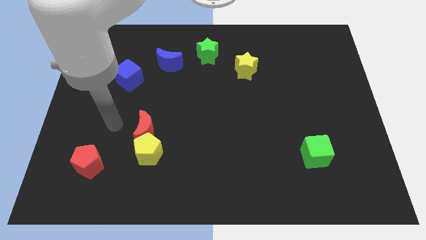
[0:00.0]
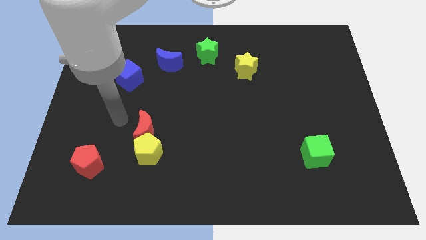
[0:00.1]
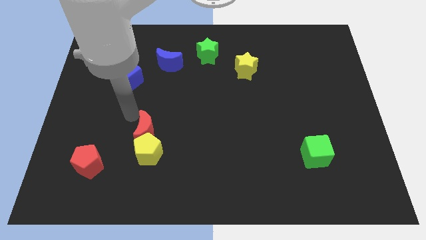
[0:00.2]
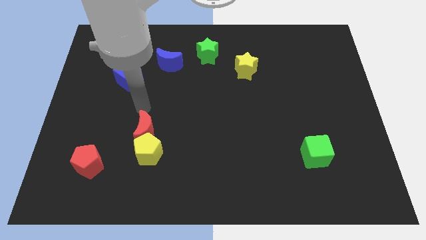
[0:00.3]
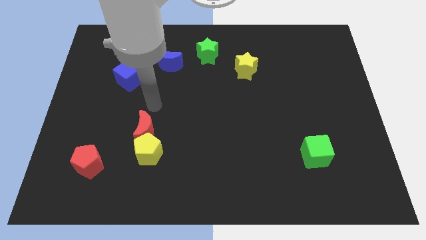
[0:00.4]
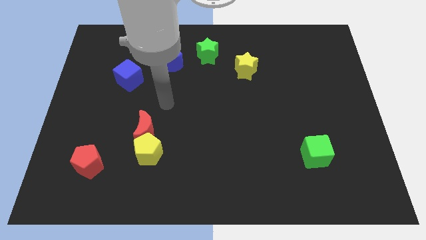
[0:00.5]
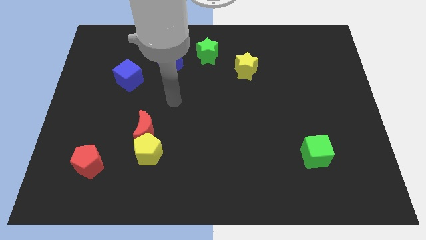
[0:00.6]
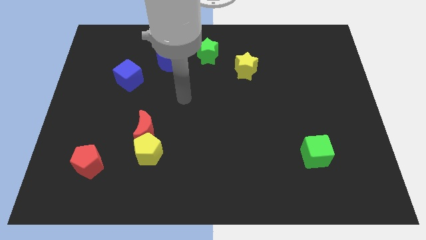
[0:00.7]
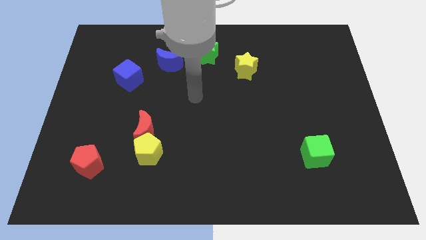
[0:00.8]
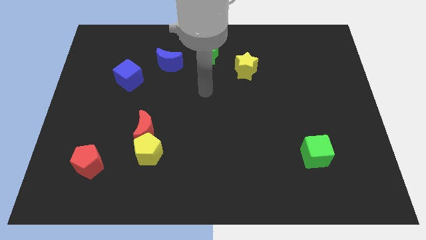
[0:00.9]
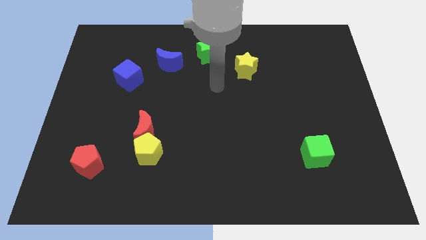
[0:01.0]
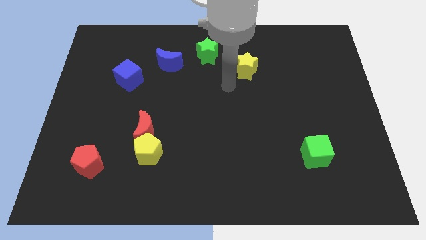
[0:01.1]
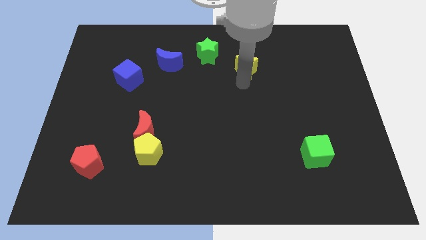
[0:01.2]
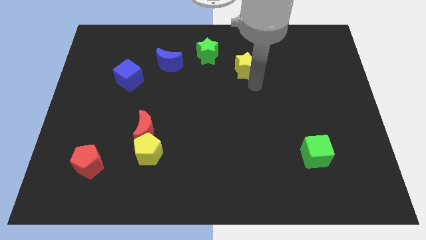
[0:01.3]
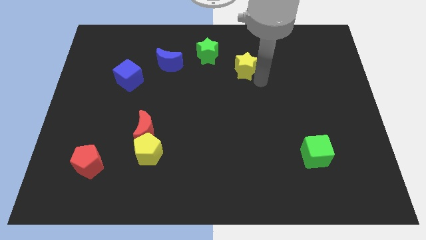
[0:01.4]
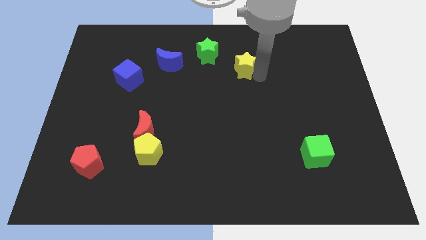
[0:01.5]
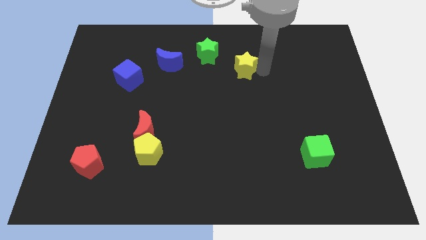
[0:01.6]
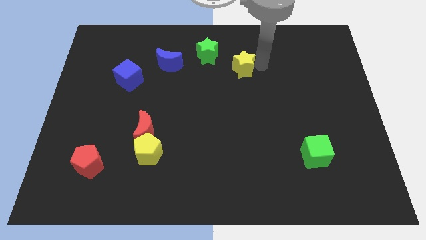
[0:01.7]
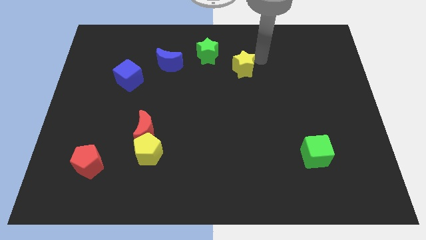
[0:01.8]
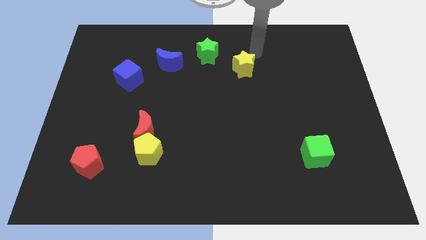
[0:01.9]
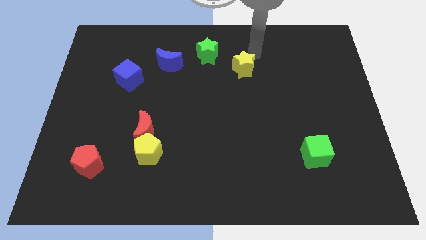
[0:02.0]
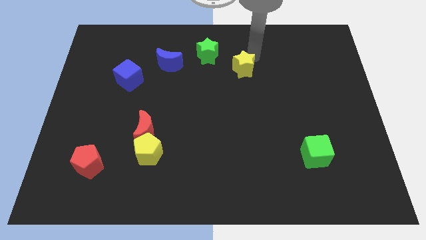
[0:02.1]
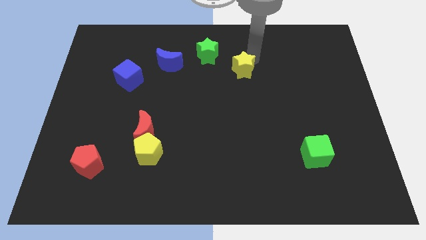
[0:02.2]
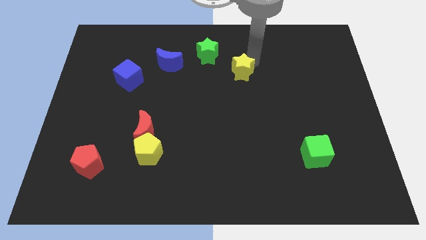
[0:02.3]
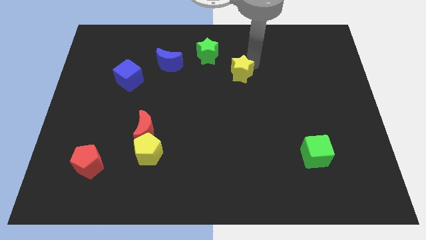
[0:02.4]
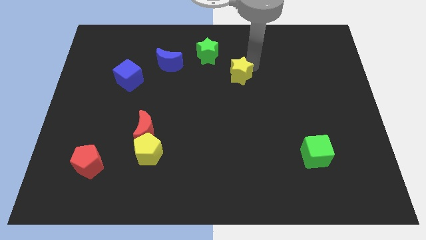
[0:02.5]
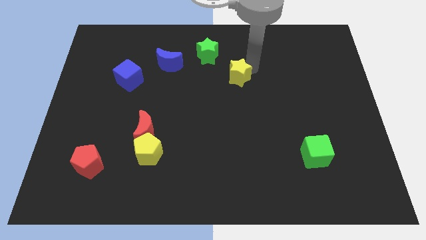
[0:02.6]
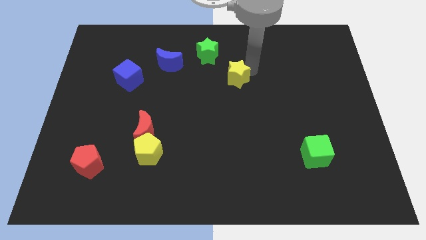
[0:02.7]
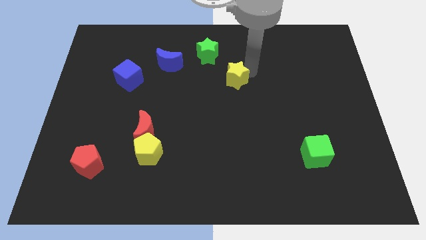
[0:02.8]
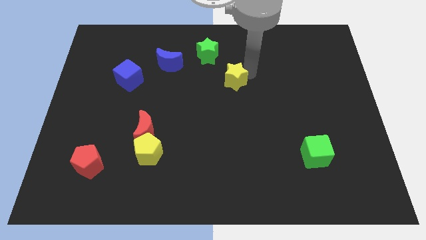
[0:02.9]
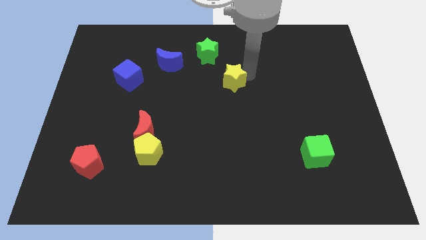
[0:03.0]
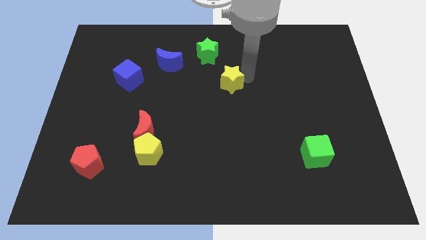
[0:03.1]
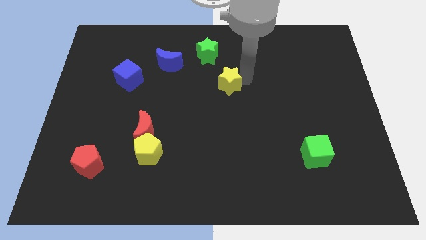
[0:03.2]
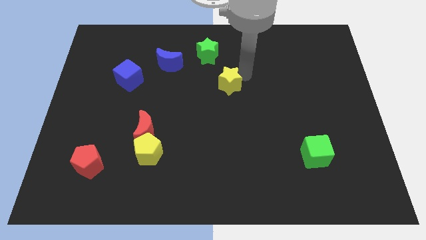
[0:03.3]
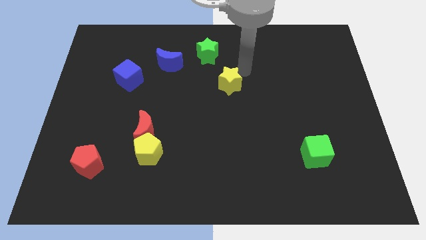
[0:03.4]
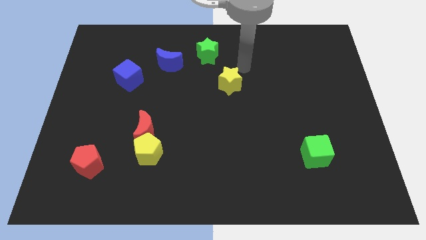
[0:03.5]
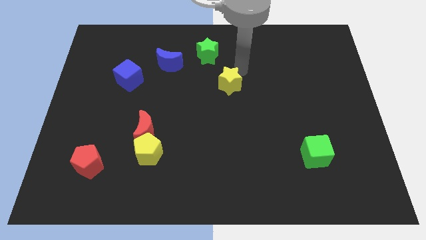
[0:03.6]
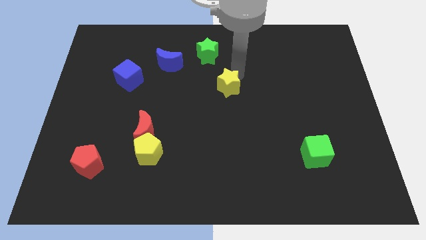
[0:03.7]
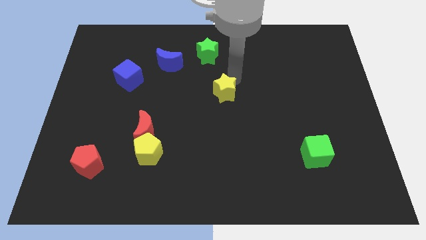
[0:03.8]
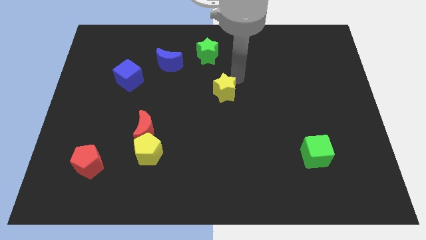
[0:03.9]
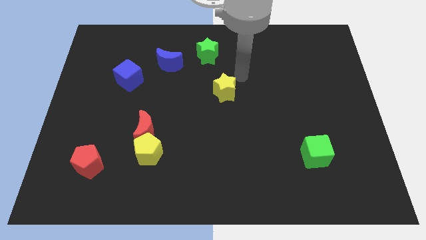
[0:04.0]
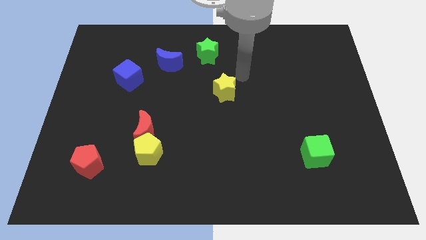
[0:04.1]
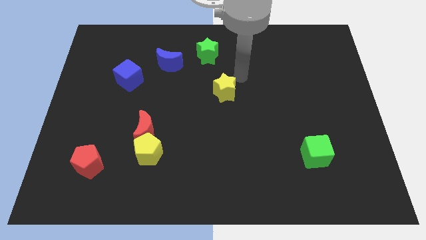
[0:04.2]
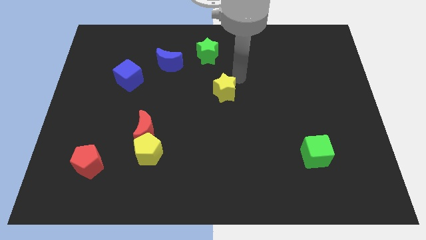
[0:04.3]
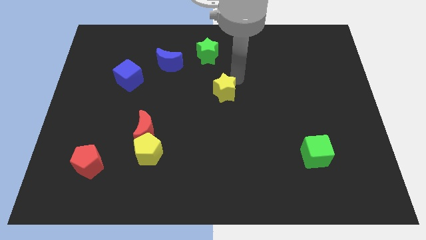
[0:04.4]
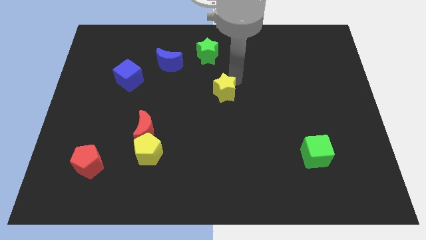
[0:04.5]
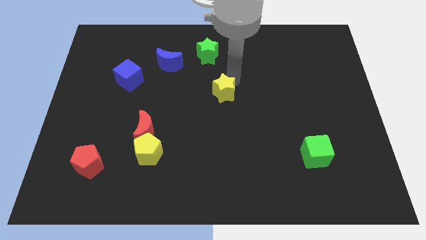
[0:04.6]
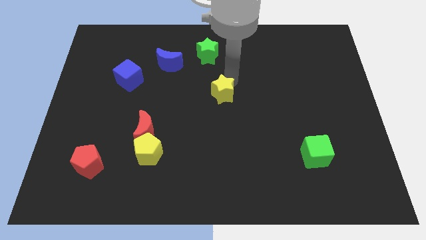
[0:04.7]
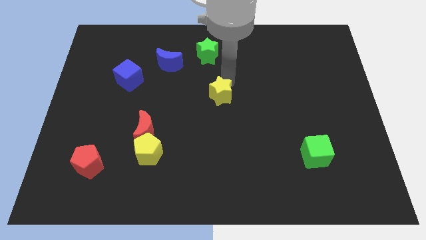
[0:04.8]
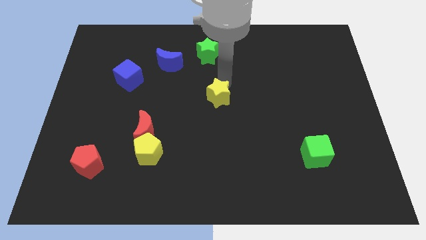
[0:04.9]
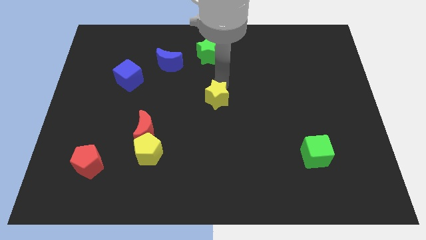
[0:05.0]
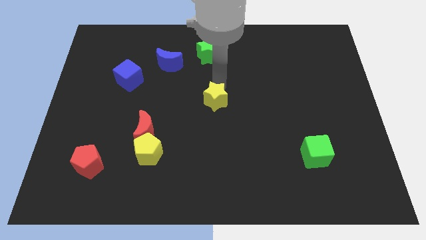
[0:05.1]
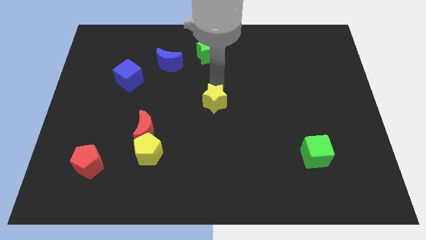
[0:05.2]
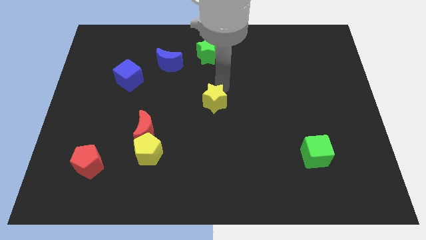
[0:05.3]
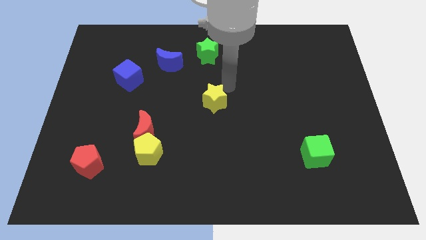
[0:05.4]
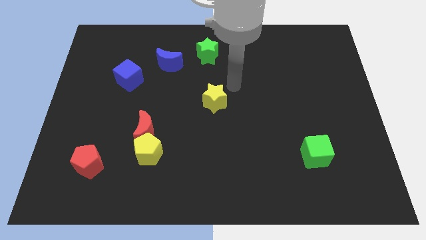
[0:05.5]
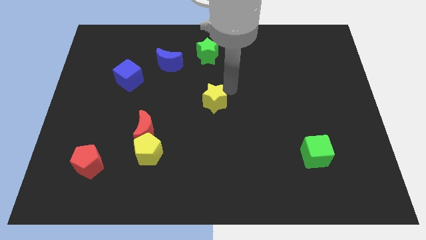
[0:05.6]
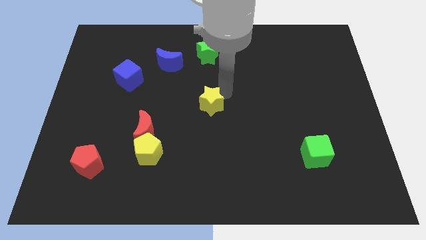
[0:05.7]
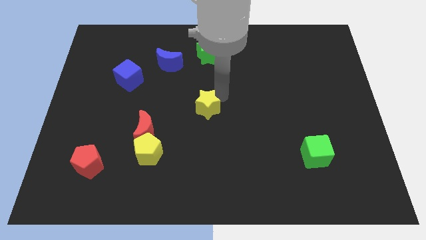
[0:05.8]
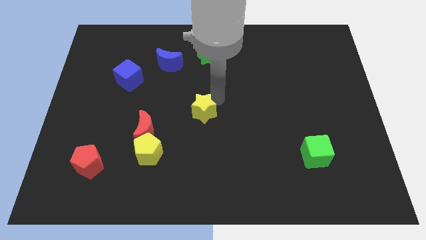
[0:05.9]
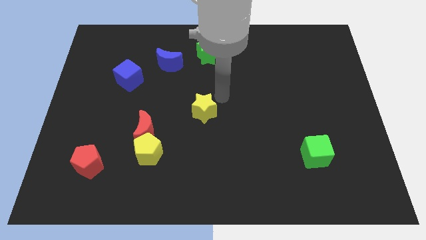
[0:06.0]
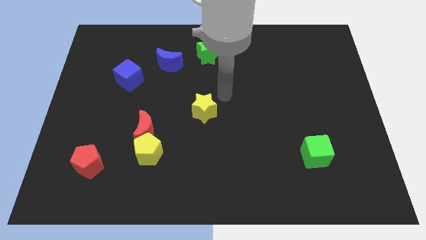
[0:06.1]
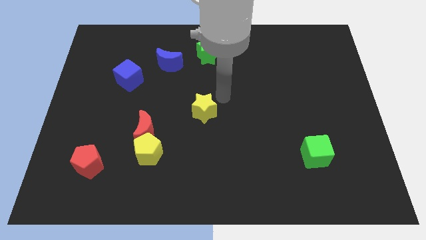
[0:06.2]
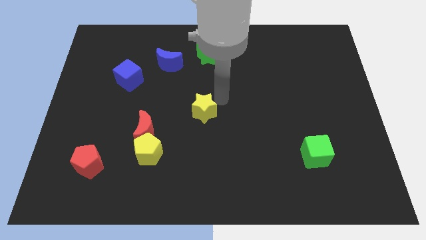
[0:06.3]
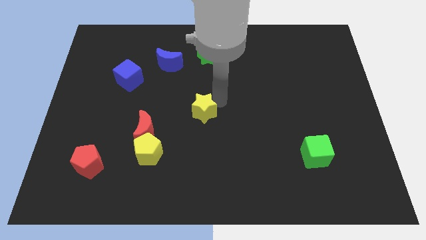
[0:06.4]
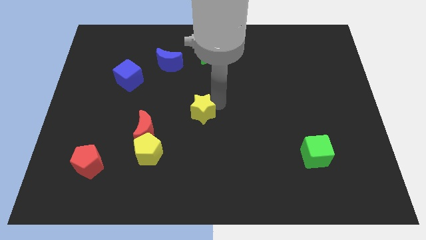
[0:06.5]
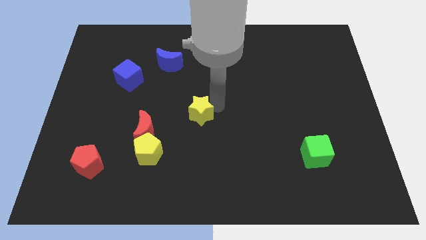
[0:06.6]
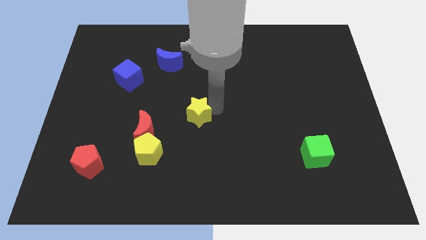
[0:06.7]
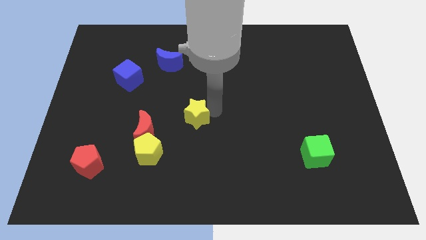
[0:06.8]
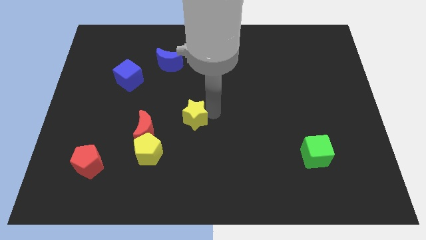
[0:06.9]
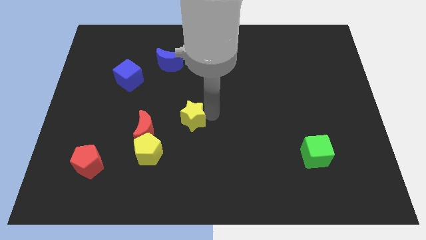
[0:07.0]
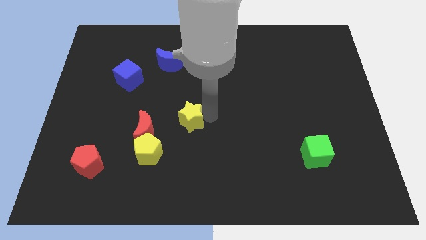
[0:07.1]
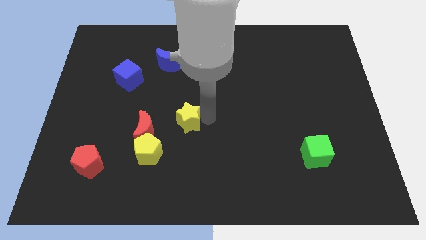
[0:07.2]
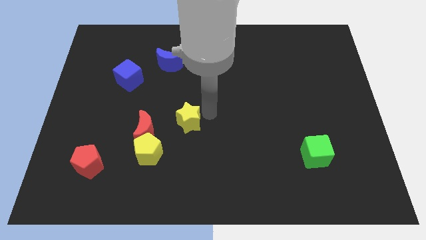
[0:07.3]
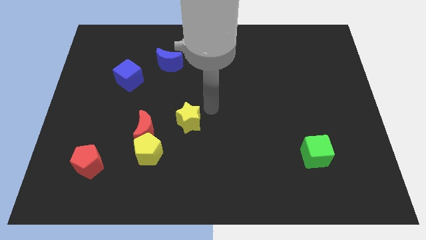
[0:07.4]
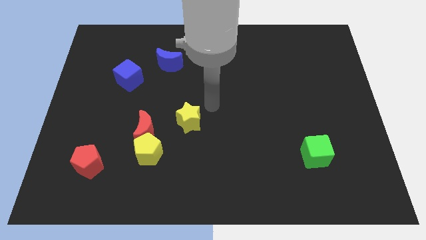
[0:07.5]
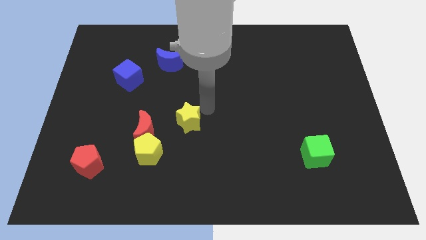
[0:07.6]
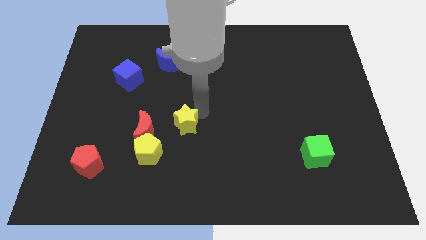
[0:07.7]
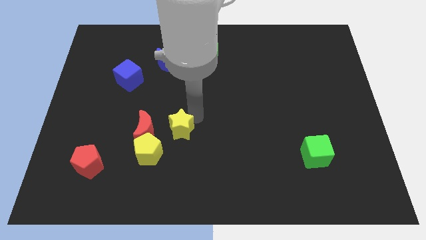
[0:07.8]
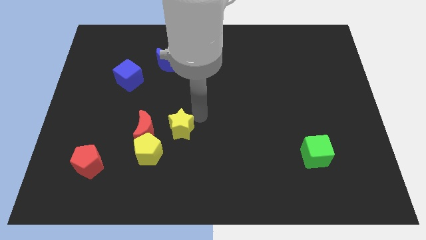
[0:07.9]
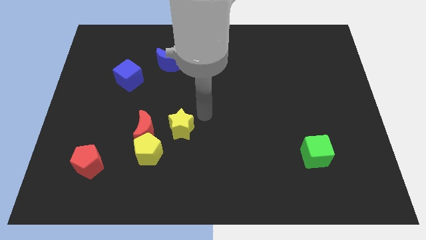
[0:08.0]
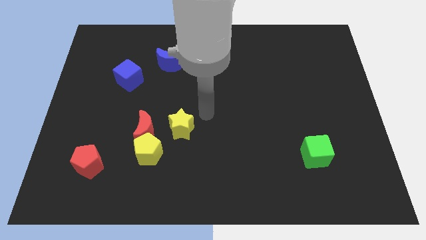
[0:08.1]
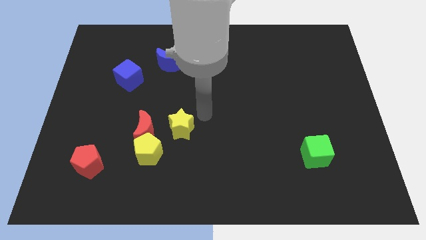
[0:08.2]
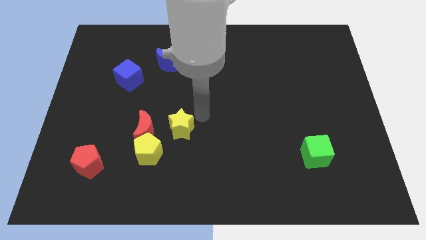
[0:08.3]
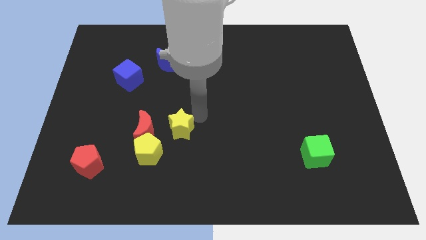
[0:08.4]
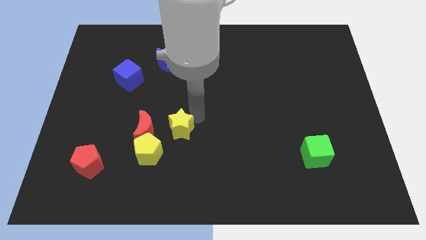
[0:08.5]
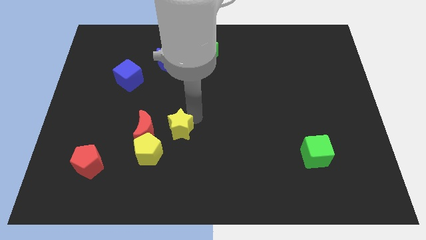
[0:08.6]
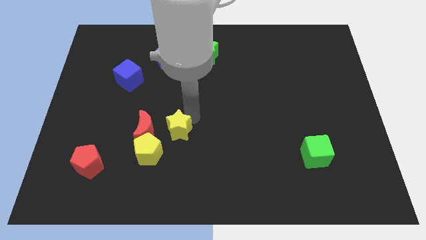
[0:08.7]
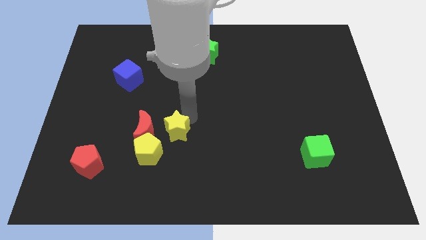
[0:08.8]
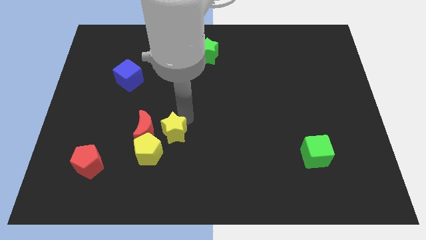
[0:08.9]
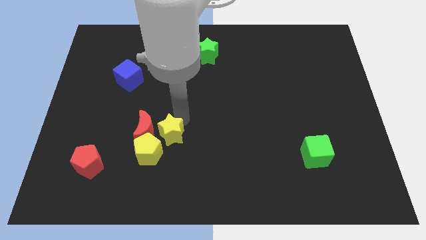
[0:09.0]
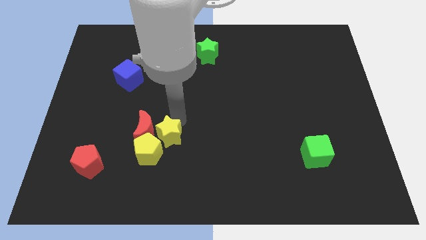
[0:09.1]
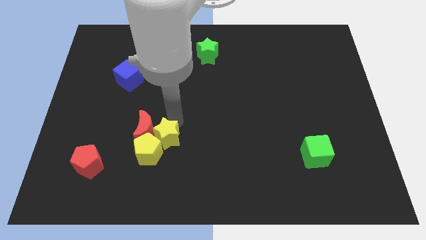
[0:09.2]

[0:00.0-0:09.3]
slide the yellow star to the yellow pentagon
